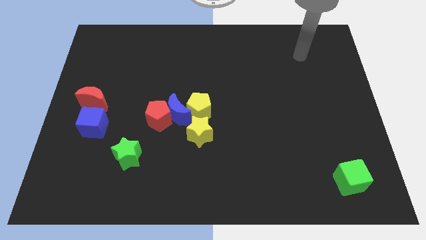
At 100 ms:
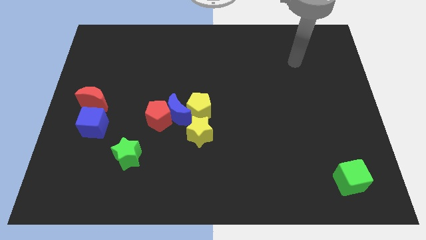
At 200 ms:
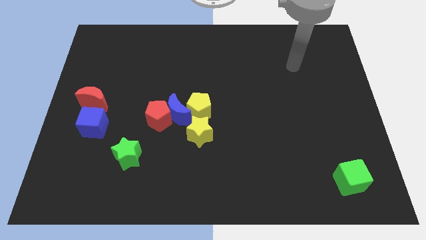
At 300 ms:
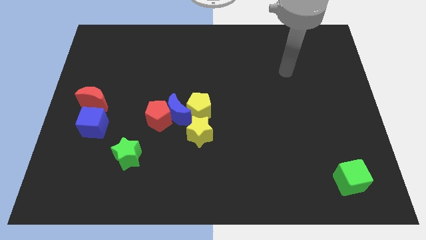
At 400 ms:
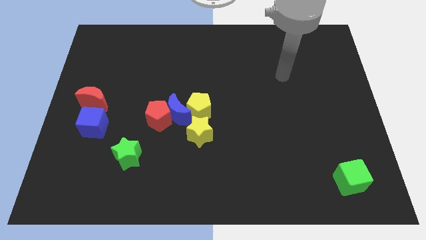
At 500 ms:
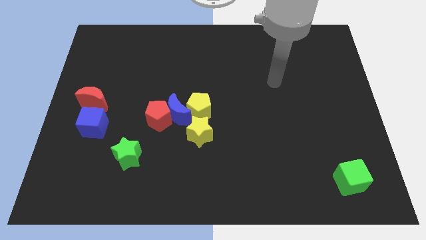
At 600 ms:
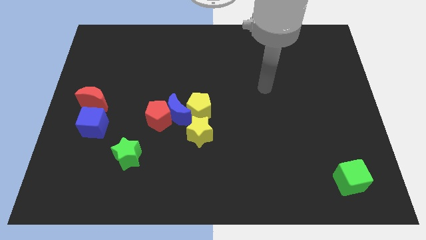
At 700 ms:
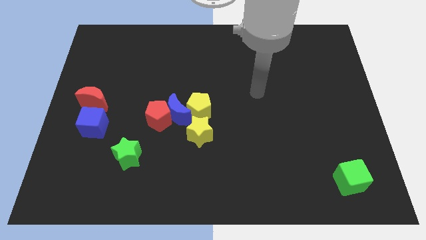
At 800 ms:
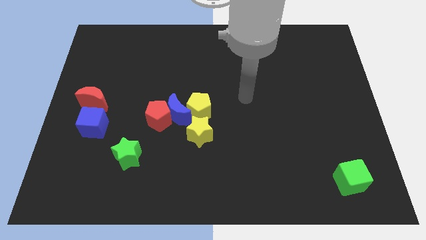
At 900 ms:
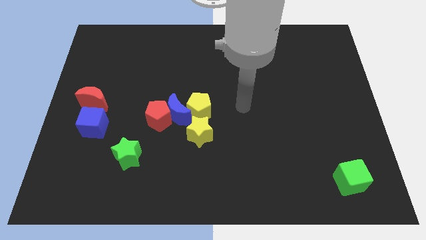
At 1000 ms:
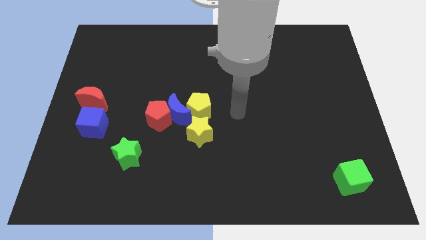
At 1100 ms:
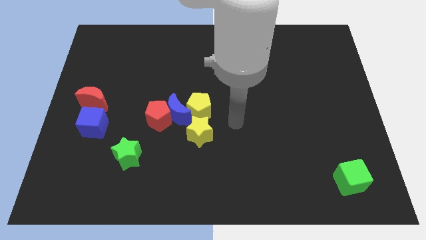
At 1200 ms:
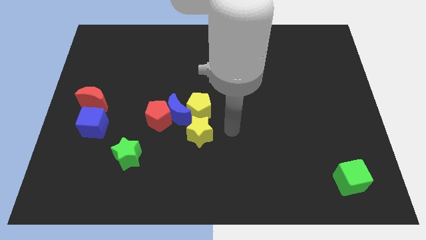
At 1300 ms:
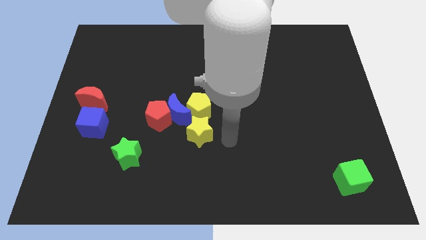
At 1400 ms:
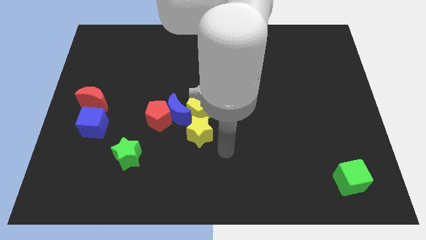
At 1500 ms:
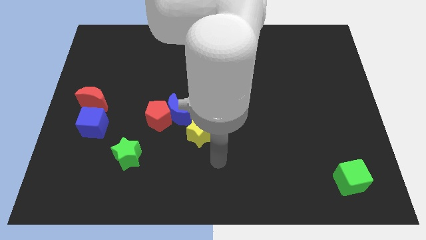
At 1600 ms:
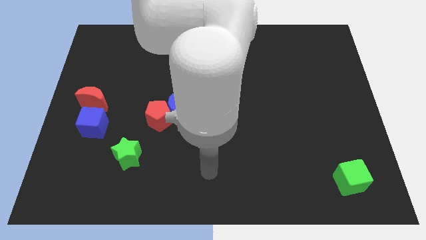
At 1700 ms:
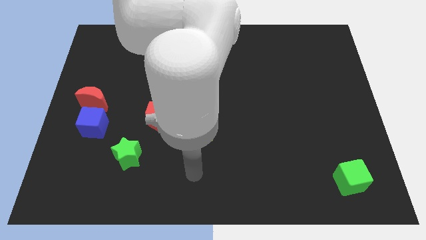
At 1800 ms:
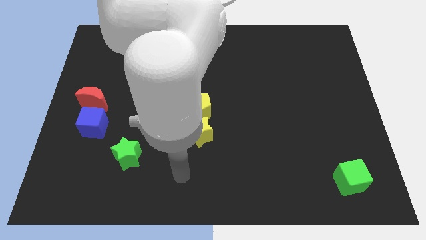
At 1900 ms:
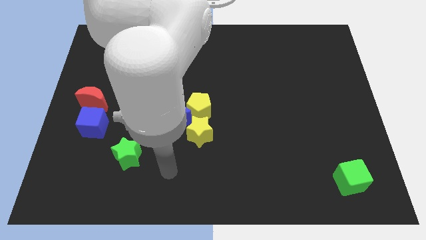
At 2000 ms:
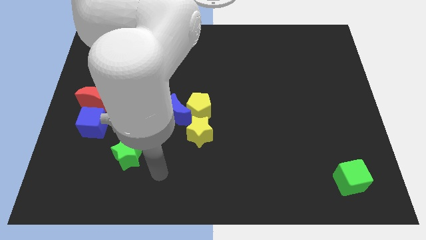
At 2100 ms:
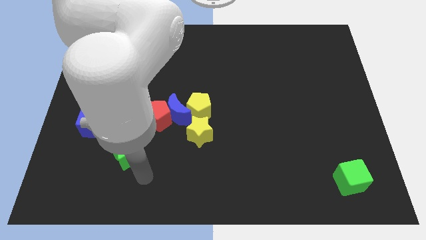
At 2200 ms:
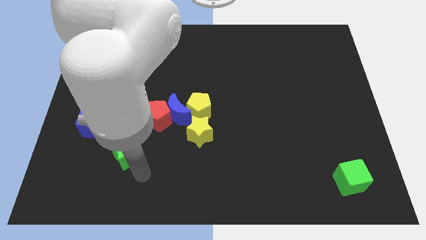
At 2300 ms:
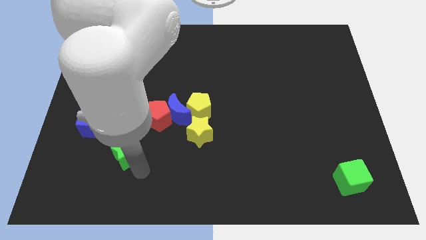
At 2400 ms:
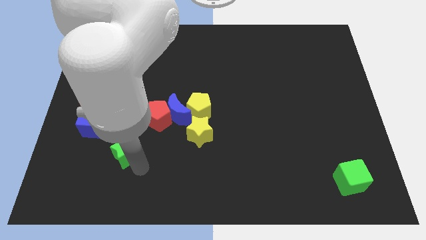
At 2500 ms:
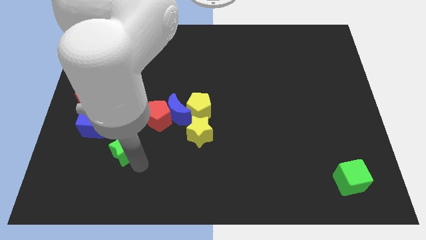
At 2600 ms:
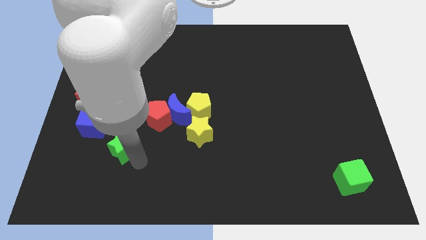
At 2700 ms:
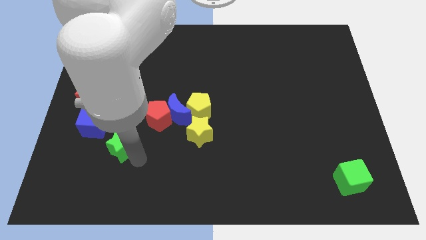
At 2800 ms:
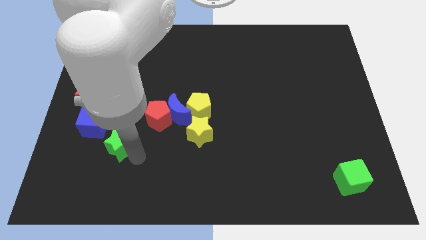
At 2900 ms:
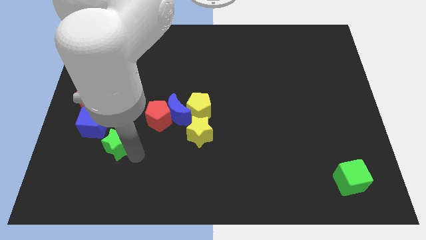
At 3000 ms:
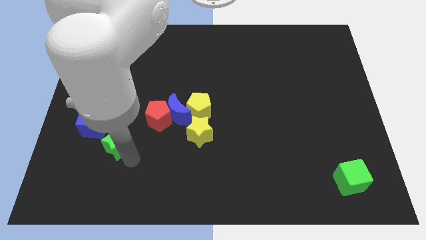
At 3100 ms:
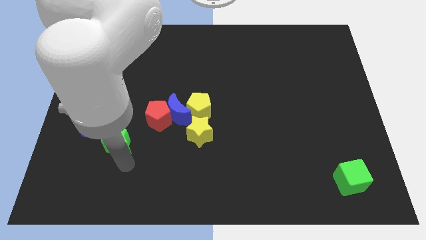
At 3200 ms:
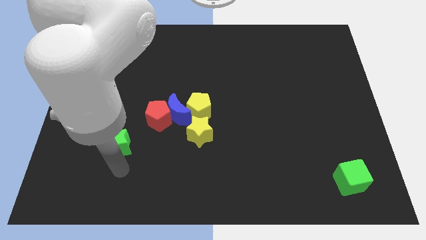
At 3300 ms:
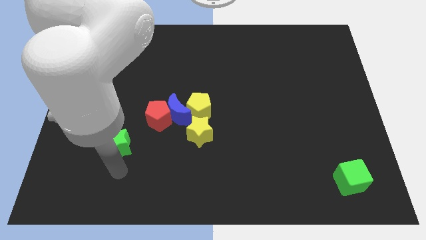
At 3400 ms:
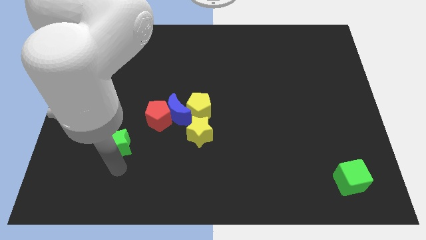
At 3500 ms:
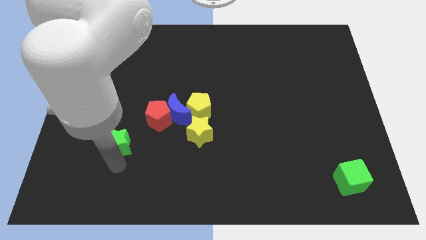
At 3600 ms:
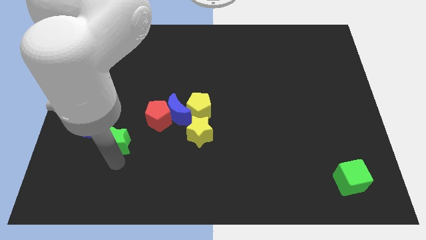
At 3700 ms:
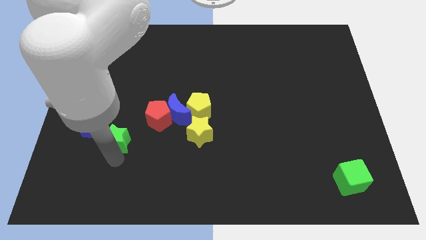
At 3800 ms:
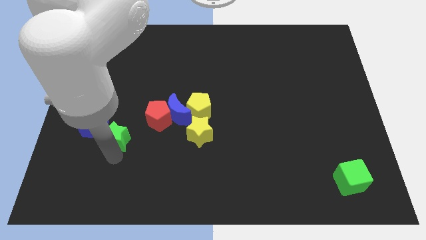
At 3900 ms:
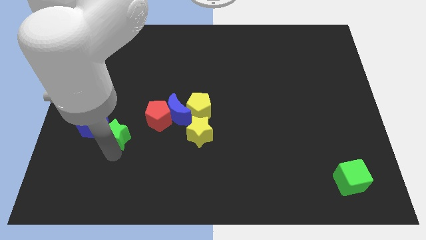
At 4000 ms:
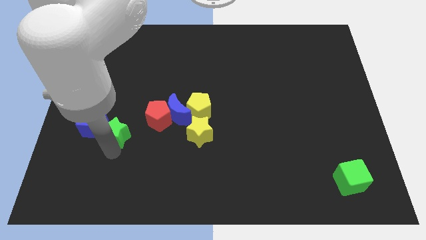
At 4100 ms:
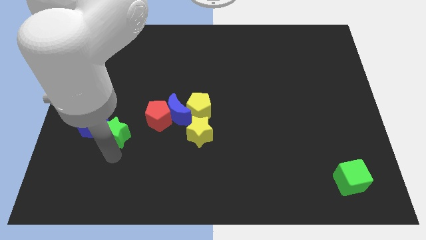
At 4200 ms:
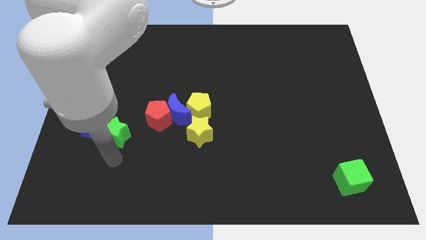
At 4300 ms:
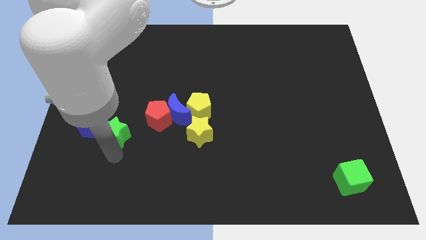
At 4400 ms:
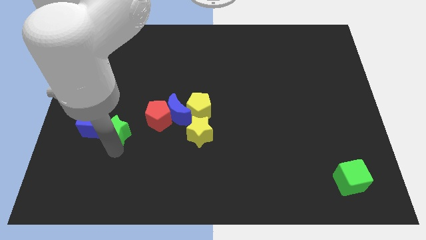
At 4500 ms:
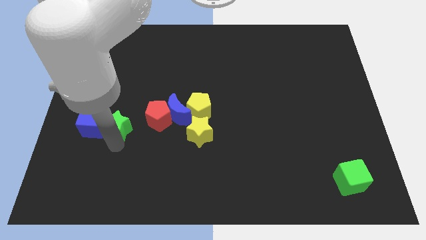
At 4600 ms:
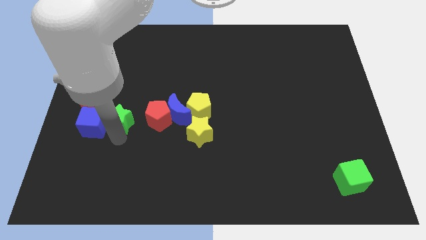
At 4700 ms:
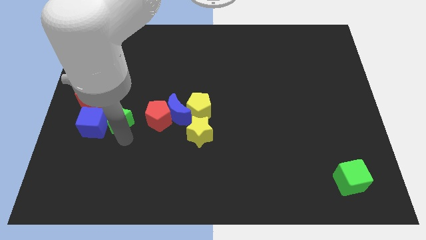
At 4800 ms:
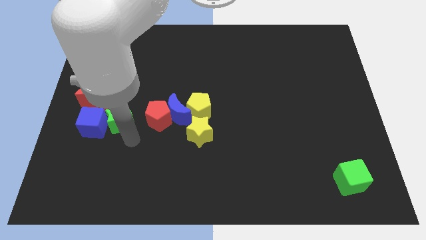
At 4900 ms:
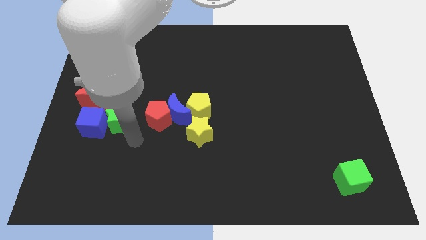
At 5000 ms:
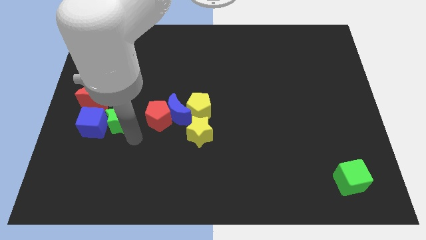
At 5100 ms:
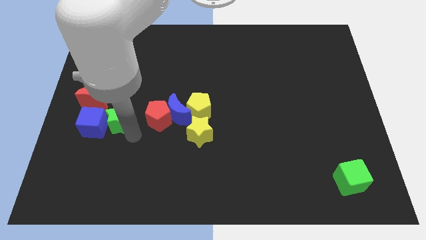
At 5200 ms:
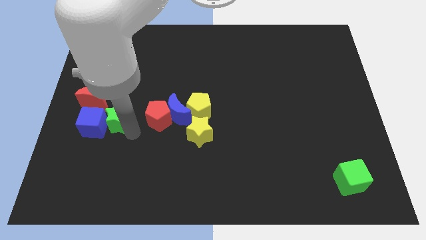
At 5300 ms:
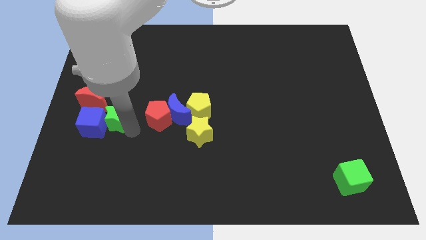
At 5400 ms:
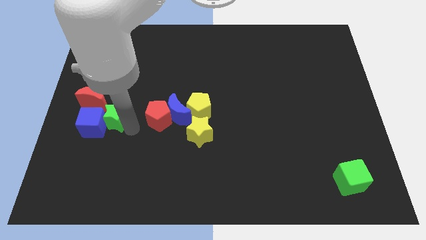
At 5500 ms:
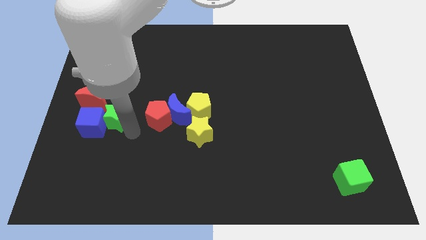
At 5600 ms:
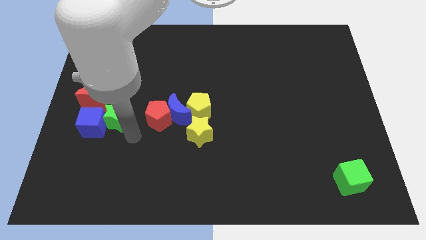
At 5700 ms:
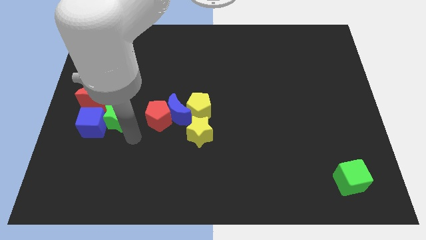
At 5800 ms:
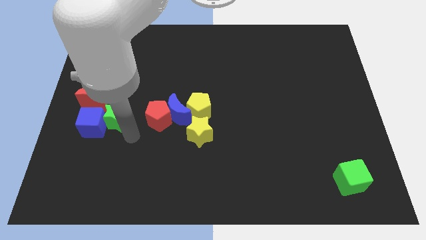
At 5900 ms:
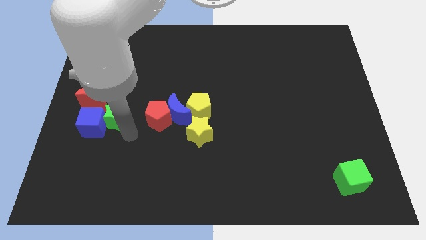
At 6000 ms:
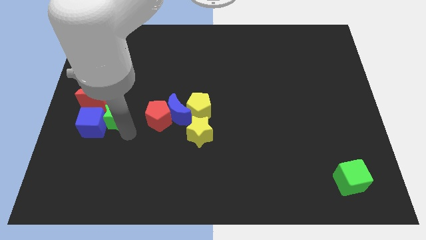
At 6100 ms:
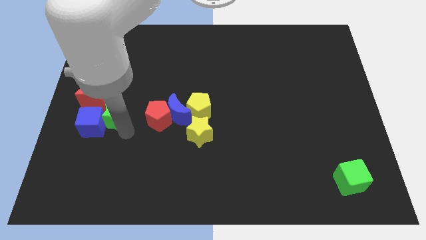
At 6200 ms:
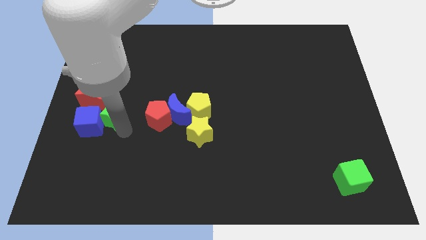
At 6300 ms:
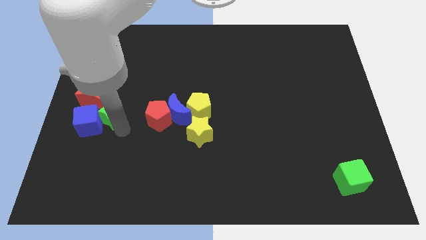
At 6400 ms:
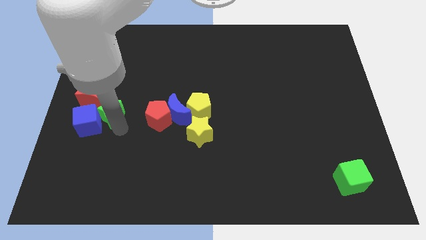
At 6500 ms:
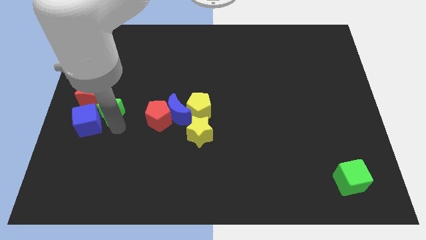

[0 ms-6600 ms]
push the green star to the red moon
